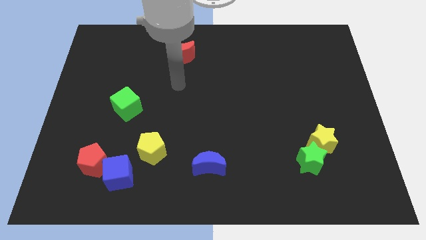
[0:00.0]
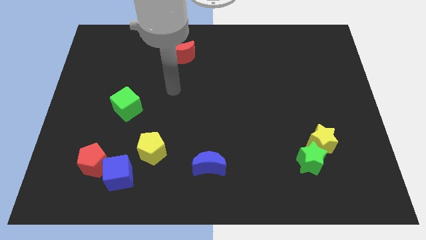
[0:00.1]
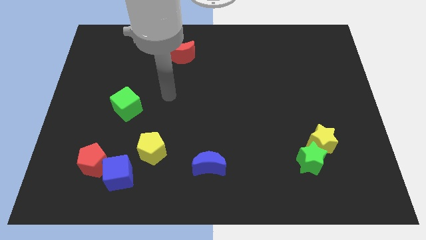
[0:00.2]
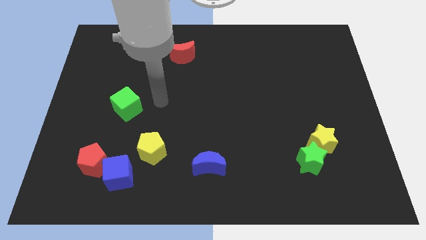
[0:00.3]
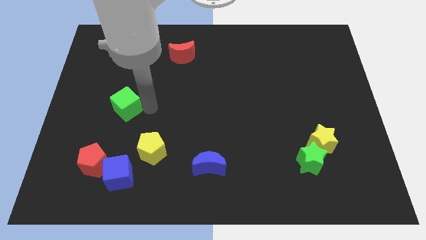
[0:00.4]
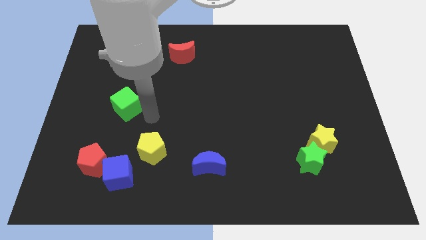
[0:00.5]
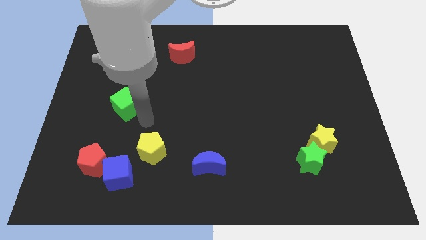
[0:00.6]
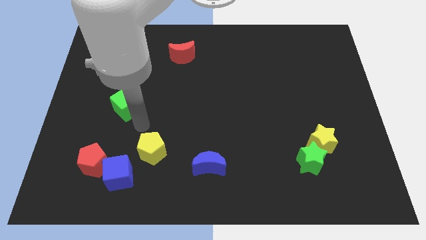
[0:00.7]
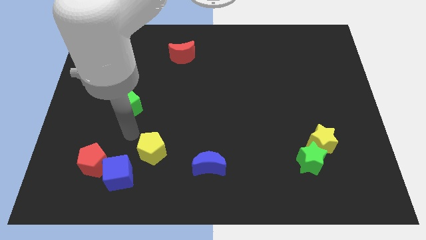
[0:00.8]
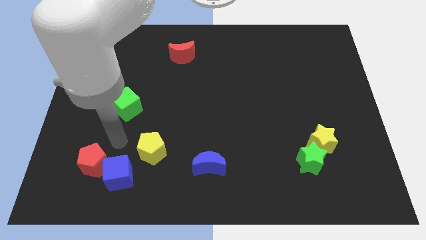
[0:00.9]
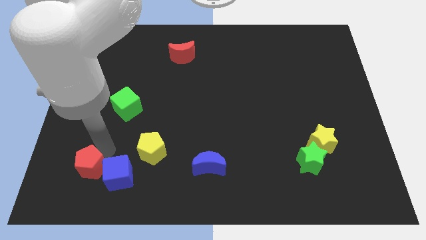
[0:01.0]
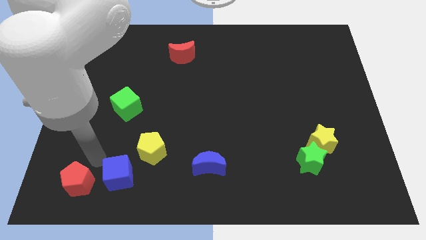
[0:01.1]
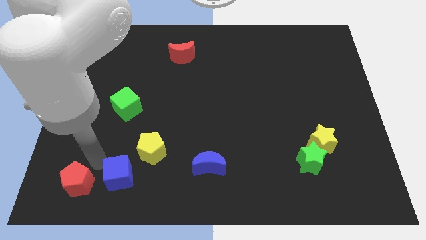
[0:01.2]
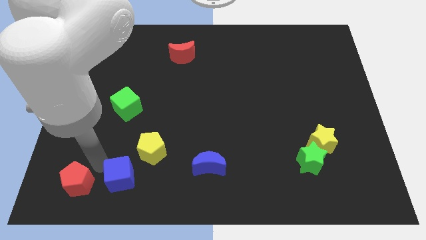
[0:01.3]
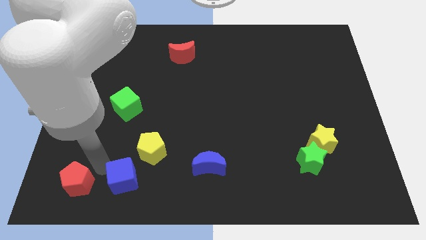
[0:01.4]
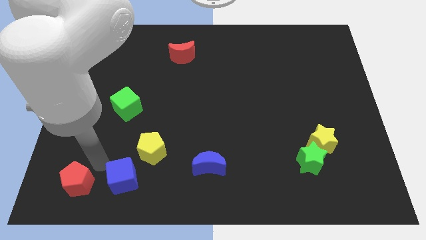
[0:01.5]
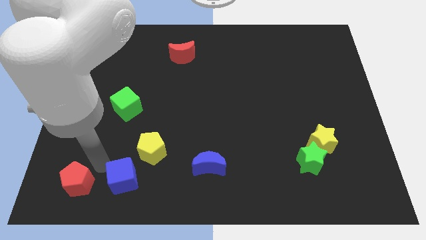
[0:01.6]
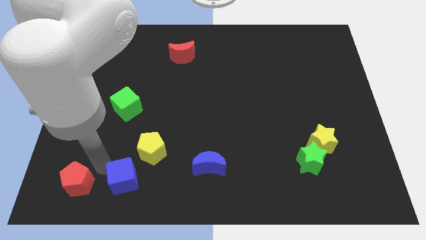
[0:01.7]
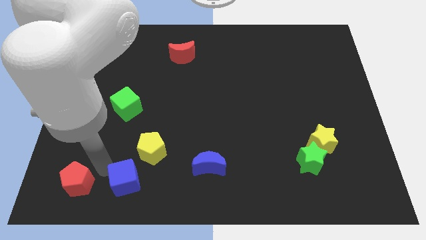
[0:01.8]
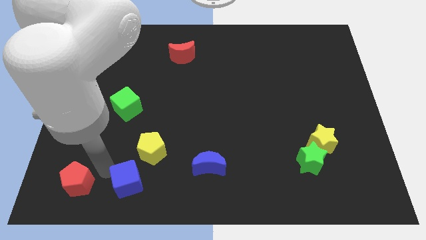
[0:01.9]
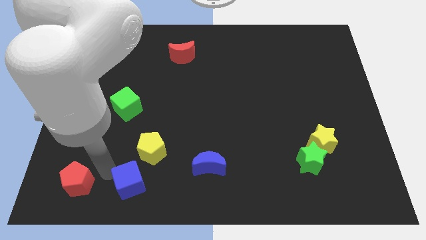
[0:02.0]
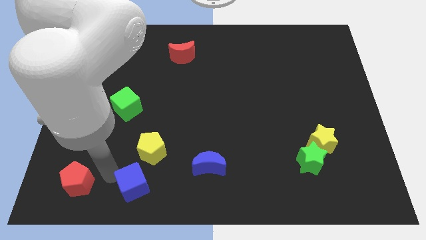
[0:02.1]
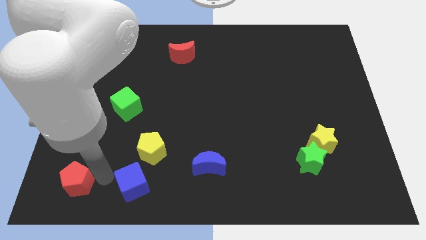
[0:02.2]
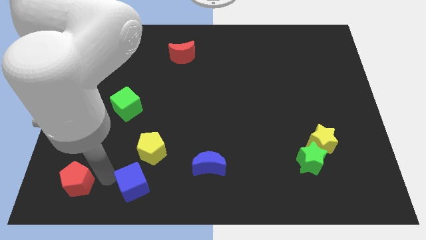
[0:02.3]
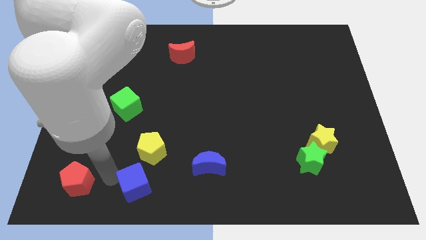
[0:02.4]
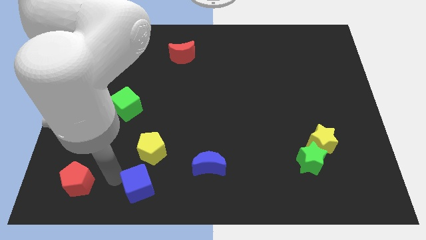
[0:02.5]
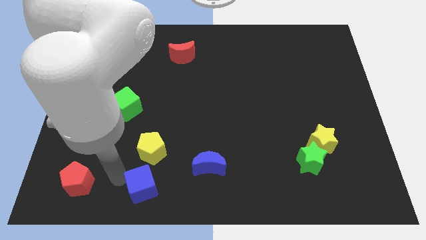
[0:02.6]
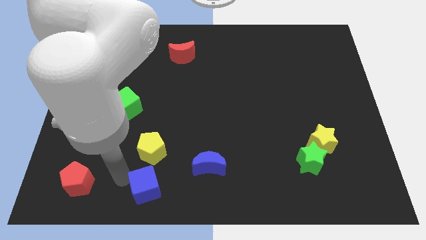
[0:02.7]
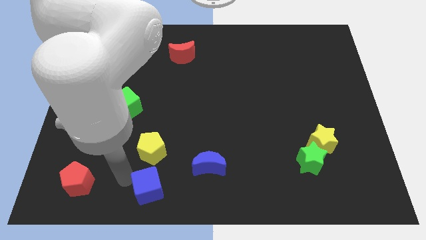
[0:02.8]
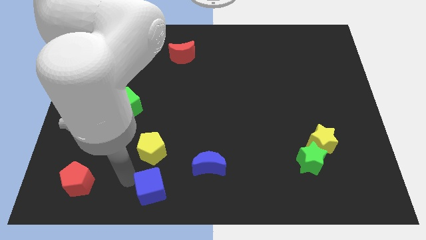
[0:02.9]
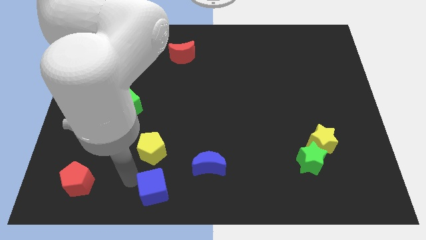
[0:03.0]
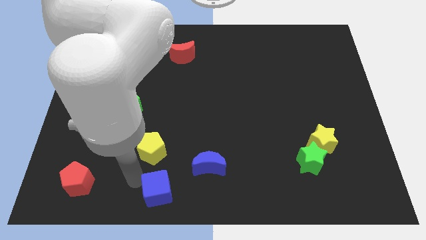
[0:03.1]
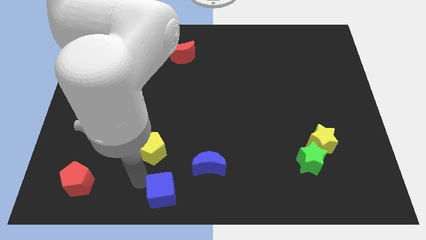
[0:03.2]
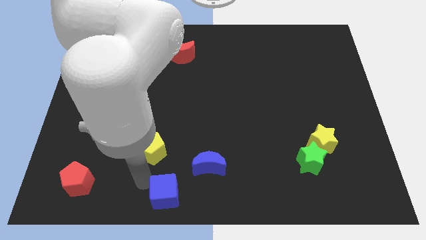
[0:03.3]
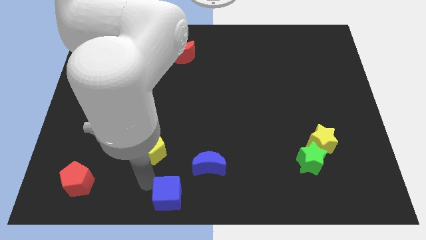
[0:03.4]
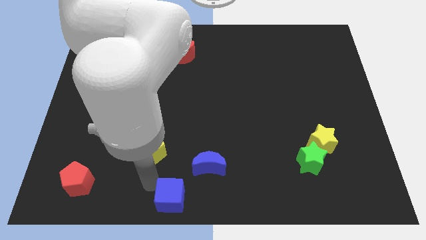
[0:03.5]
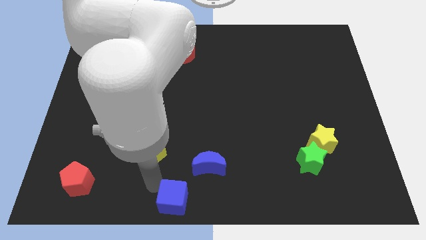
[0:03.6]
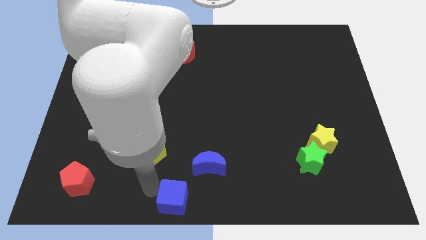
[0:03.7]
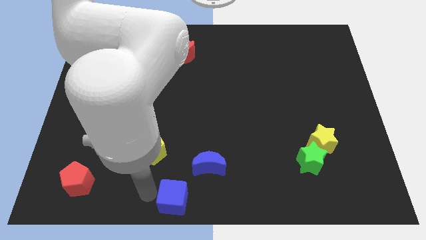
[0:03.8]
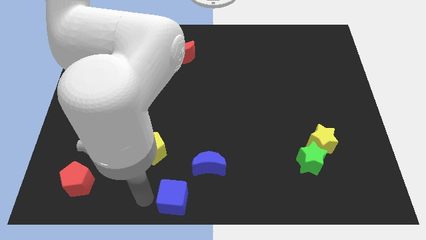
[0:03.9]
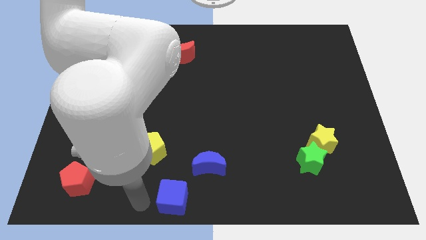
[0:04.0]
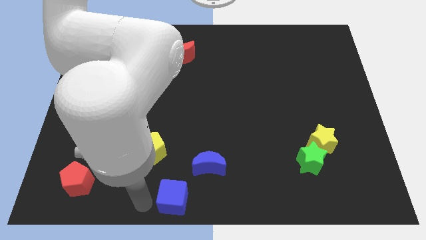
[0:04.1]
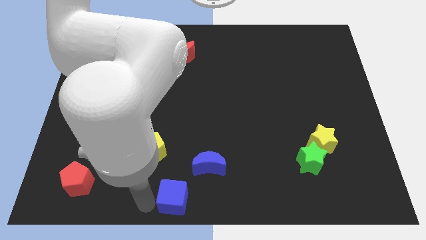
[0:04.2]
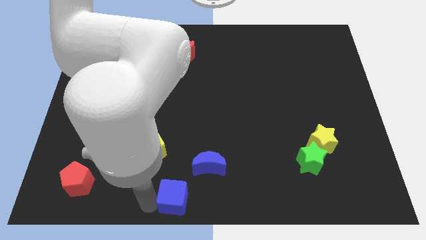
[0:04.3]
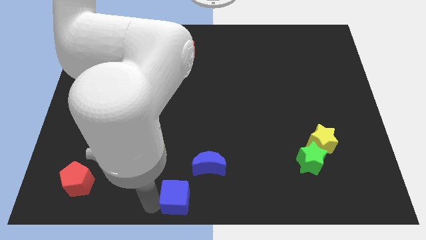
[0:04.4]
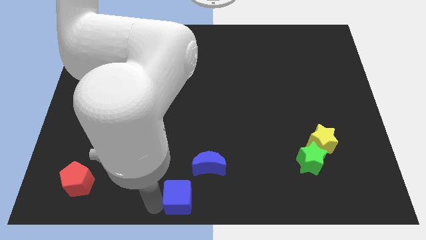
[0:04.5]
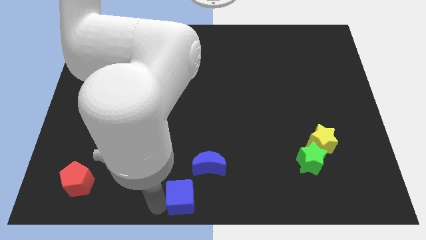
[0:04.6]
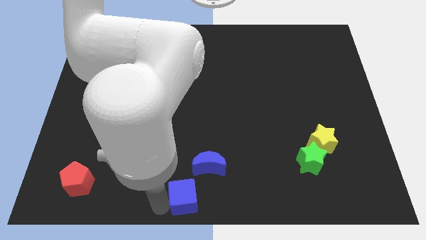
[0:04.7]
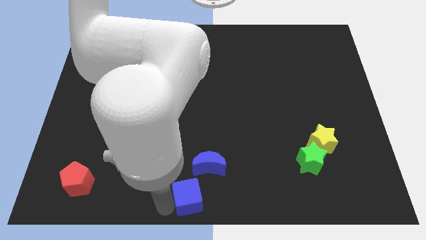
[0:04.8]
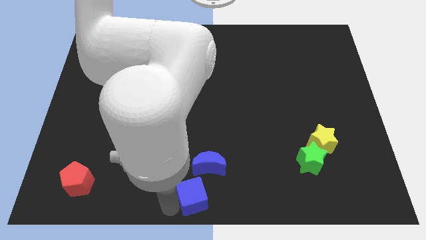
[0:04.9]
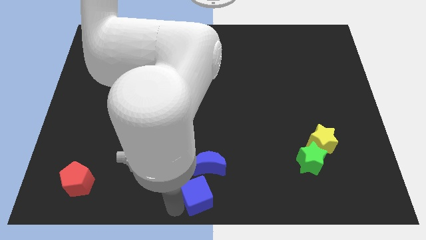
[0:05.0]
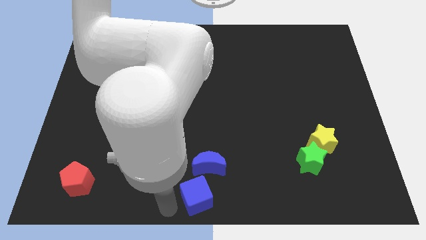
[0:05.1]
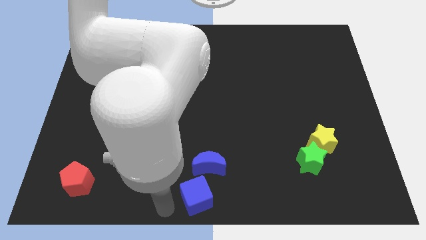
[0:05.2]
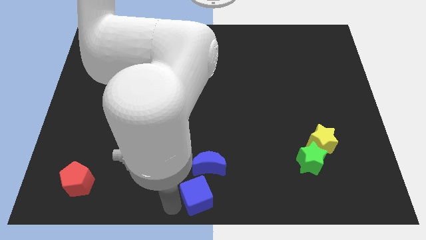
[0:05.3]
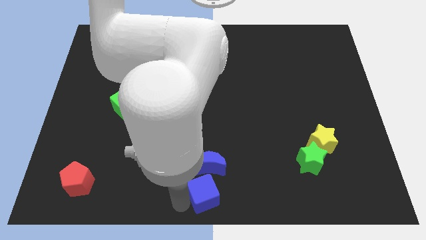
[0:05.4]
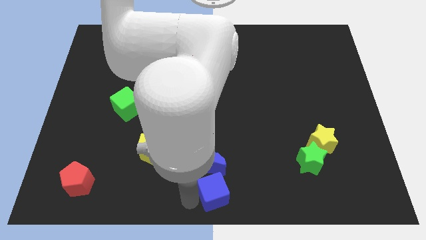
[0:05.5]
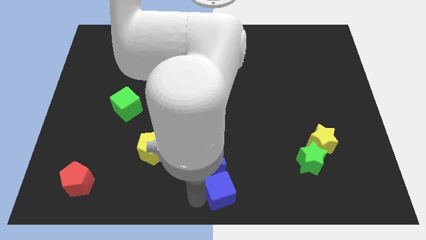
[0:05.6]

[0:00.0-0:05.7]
push the blue cube to the right

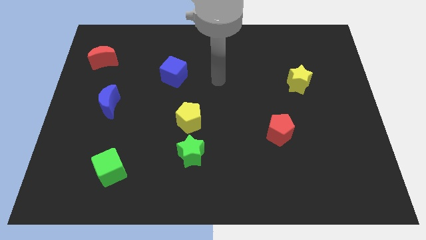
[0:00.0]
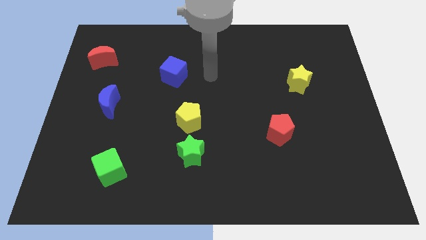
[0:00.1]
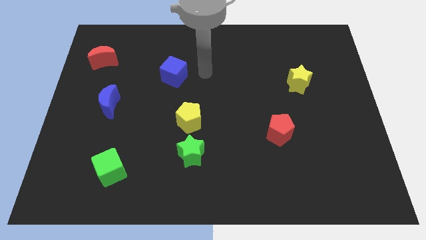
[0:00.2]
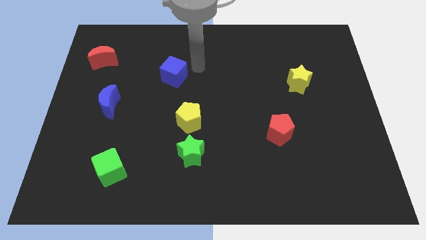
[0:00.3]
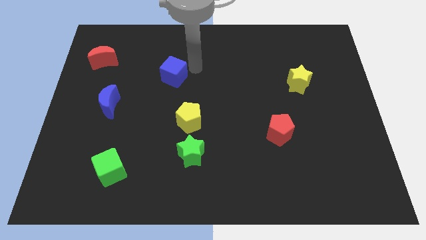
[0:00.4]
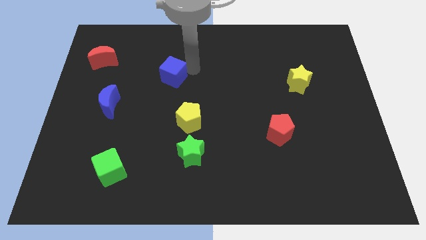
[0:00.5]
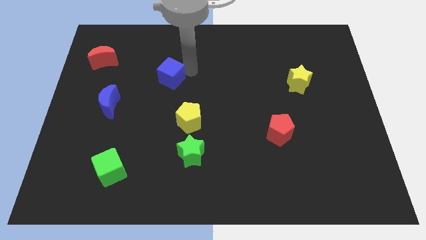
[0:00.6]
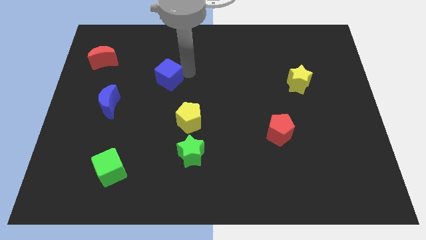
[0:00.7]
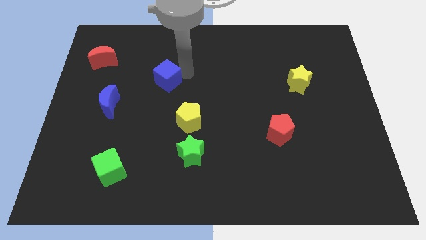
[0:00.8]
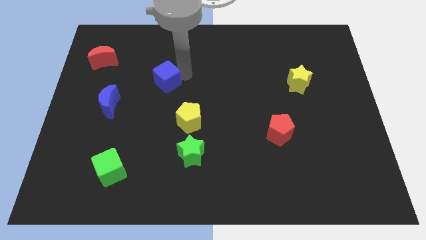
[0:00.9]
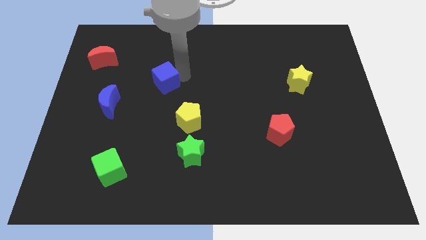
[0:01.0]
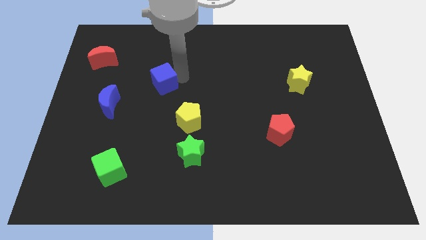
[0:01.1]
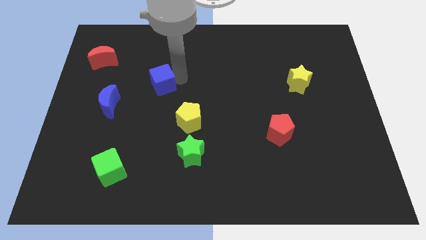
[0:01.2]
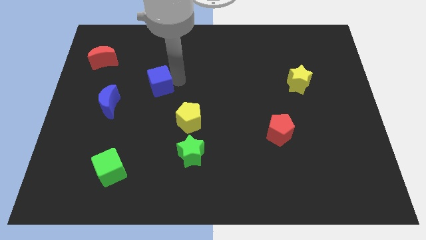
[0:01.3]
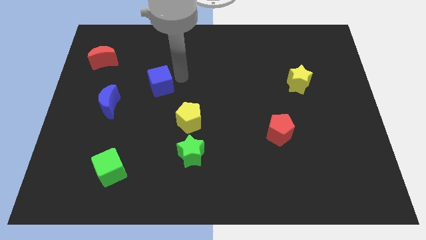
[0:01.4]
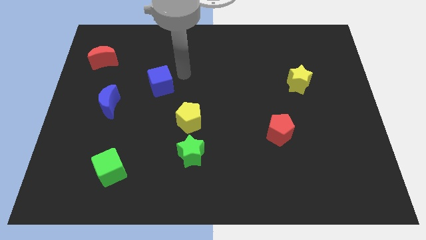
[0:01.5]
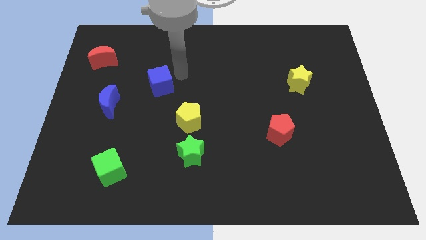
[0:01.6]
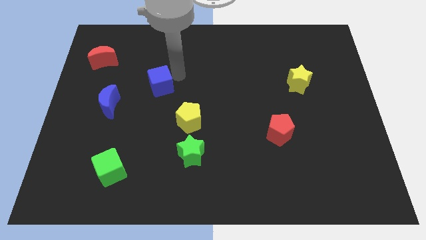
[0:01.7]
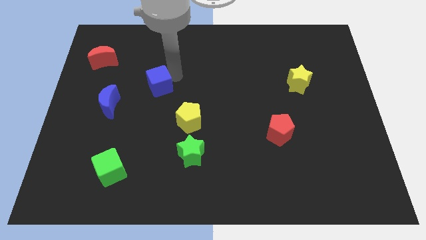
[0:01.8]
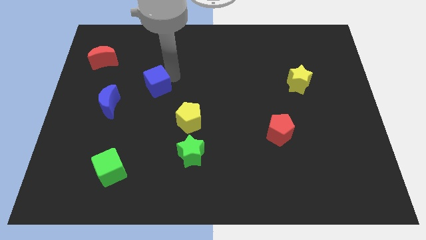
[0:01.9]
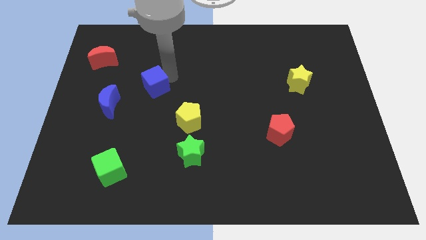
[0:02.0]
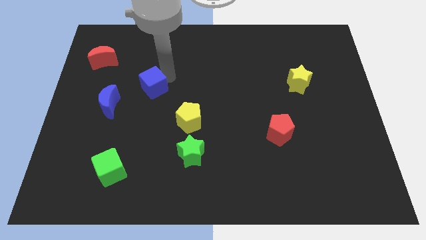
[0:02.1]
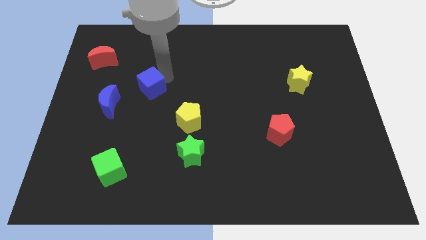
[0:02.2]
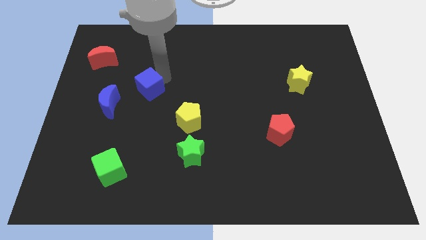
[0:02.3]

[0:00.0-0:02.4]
slightly move the blue cube downwards and left

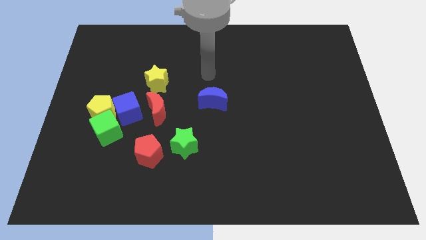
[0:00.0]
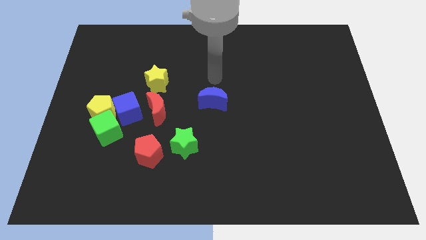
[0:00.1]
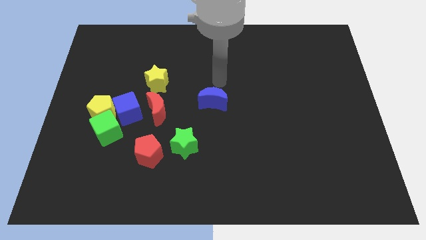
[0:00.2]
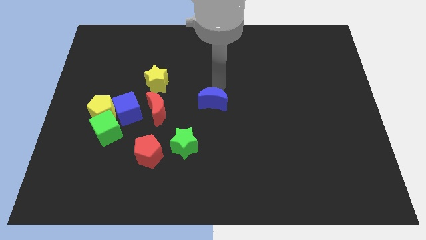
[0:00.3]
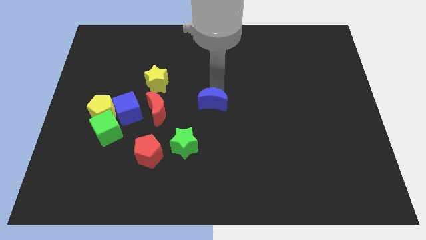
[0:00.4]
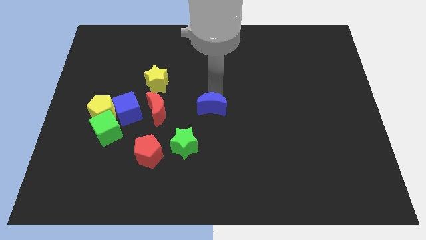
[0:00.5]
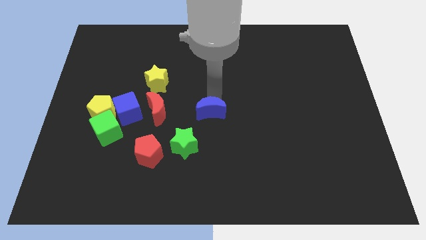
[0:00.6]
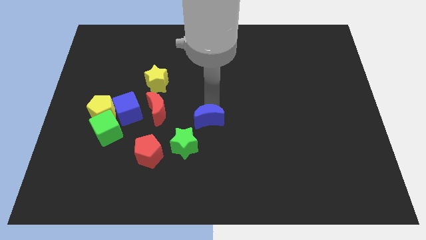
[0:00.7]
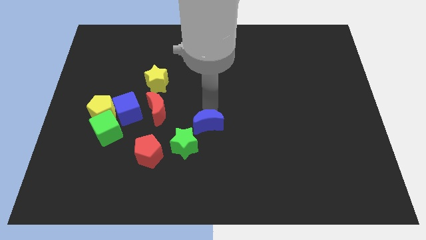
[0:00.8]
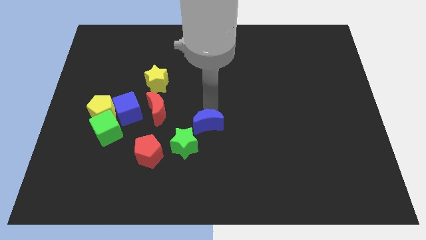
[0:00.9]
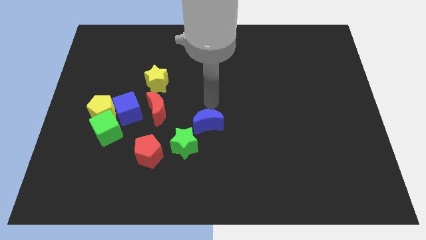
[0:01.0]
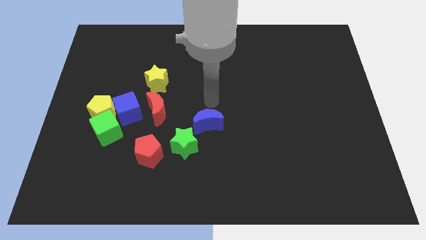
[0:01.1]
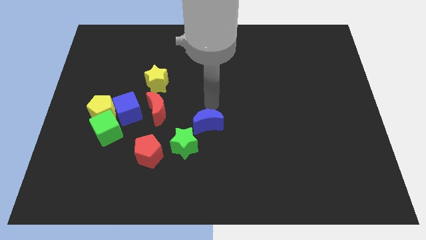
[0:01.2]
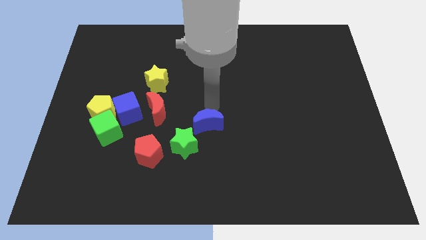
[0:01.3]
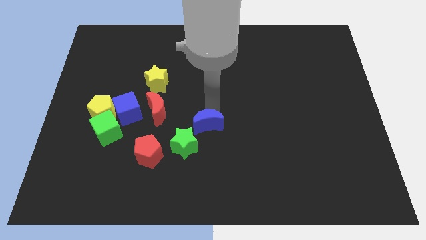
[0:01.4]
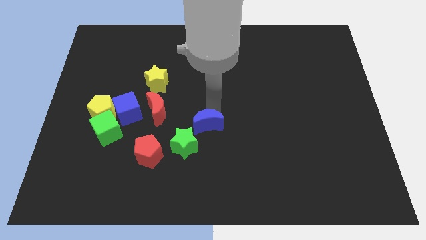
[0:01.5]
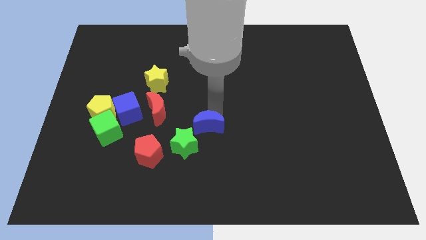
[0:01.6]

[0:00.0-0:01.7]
move the blue moon somewhat downwards
